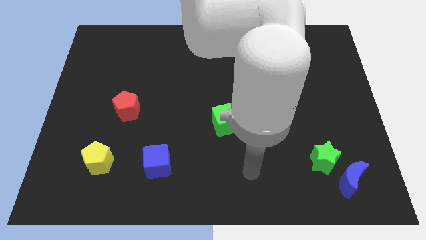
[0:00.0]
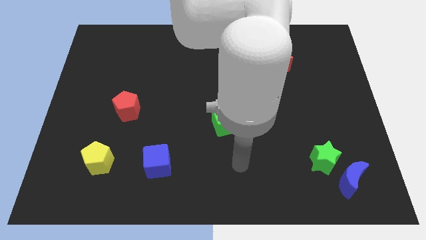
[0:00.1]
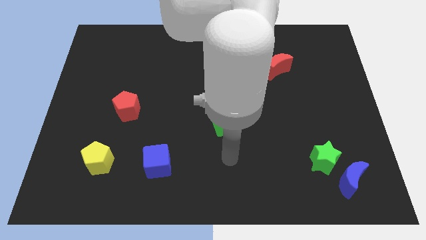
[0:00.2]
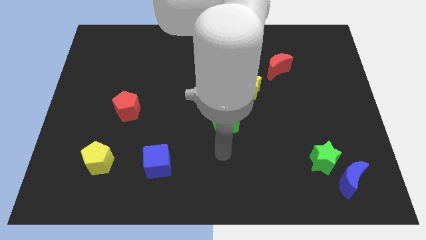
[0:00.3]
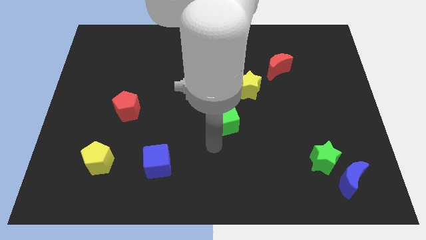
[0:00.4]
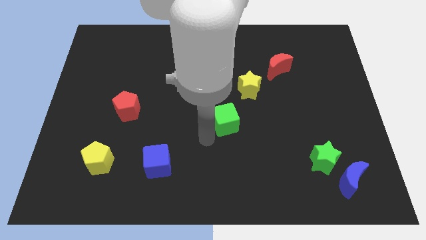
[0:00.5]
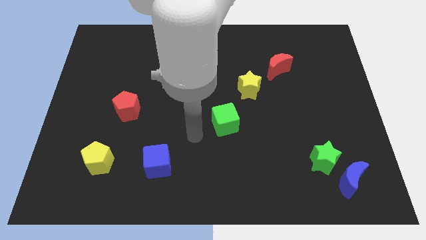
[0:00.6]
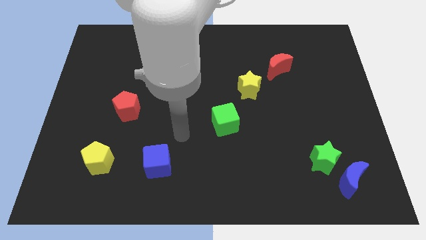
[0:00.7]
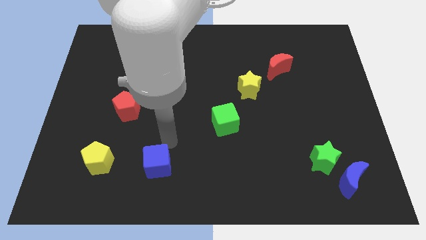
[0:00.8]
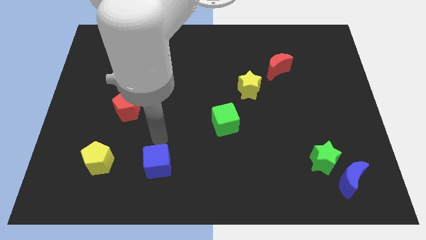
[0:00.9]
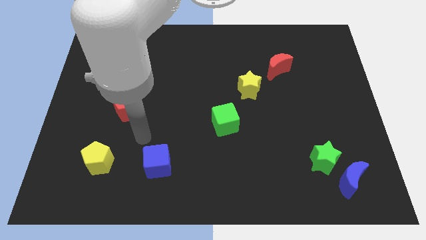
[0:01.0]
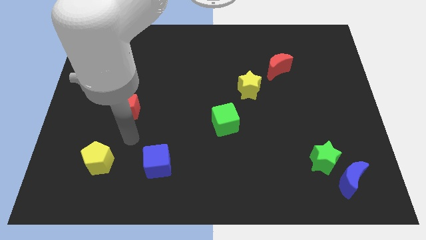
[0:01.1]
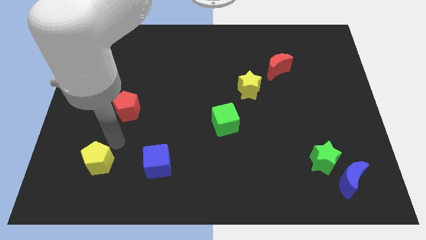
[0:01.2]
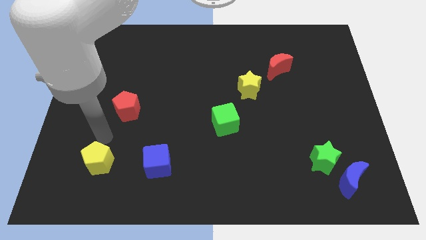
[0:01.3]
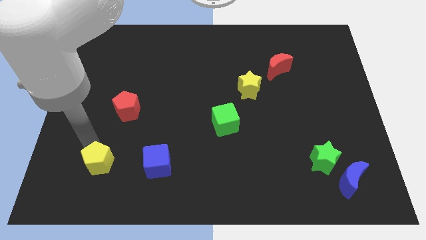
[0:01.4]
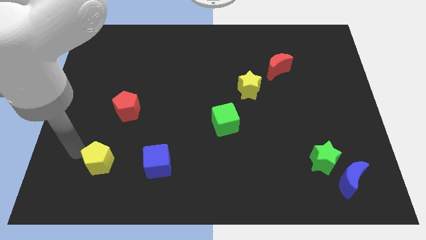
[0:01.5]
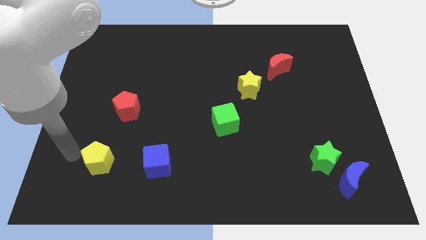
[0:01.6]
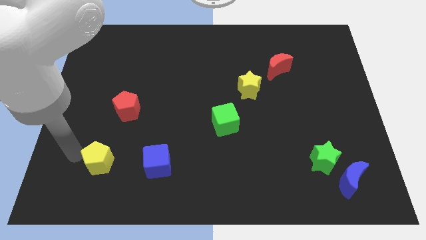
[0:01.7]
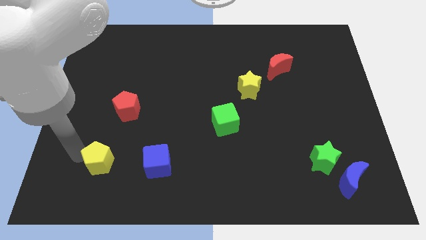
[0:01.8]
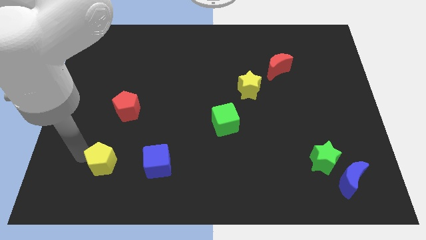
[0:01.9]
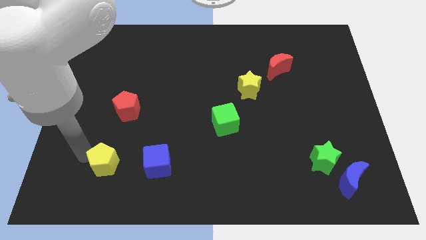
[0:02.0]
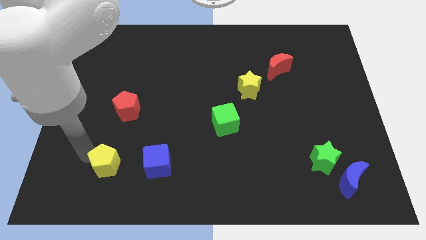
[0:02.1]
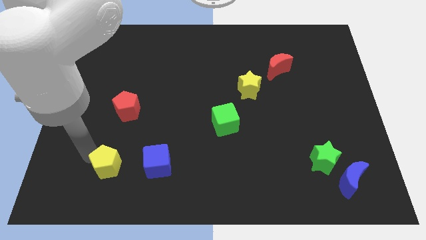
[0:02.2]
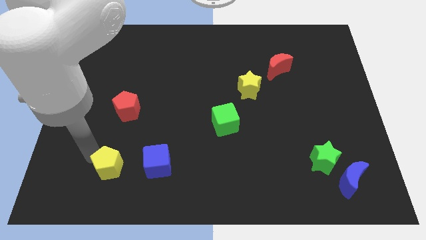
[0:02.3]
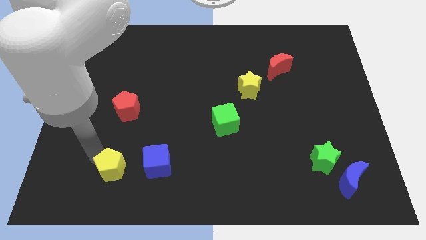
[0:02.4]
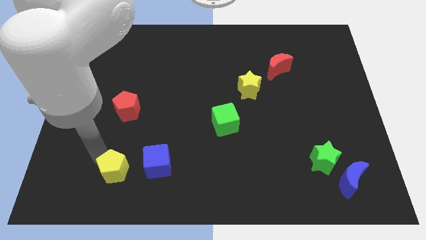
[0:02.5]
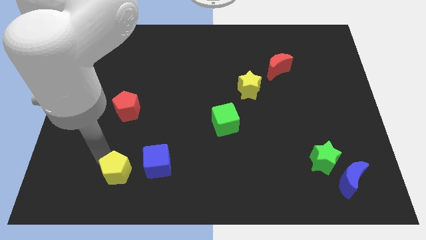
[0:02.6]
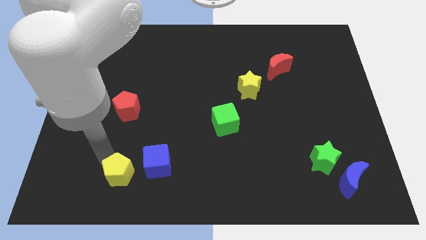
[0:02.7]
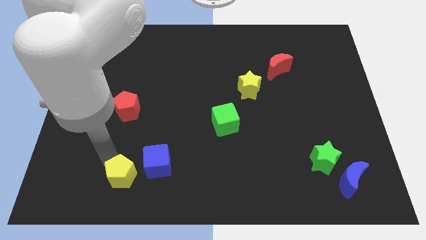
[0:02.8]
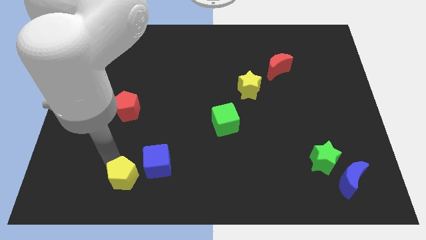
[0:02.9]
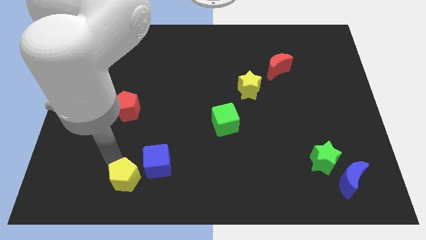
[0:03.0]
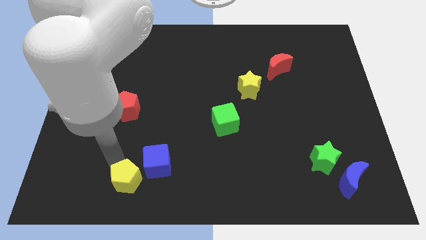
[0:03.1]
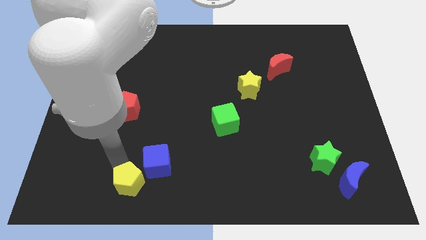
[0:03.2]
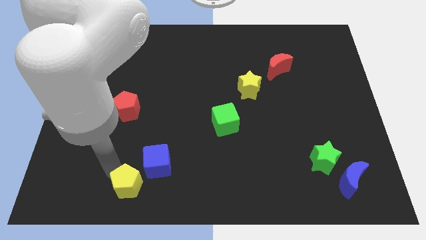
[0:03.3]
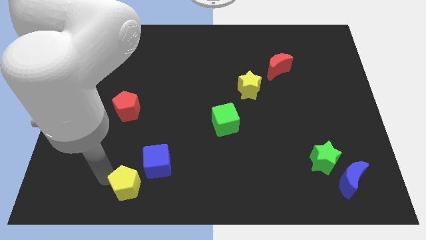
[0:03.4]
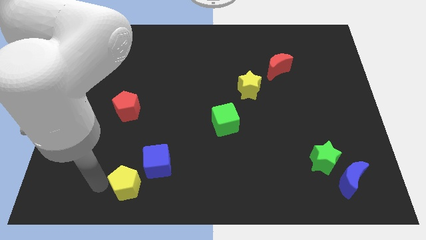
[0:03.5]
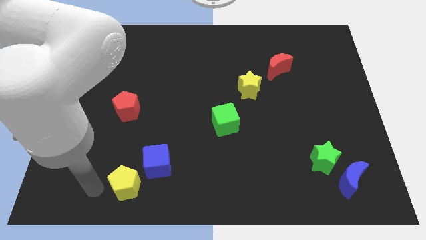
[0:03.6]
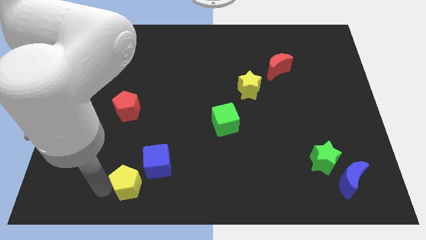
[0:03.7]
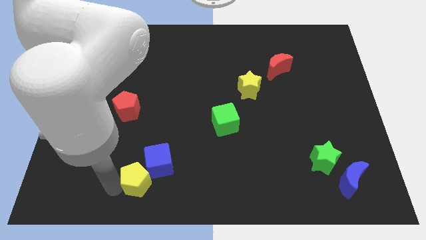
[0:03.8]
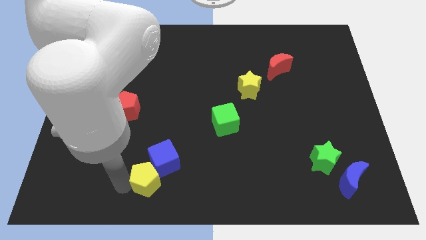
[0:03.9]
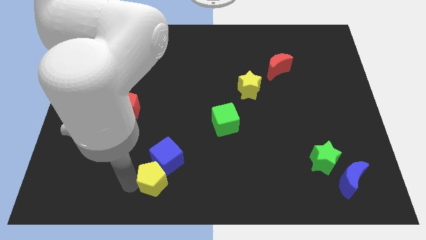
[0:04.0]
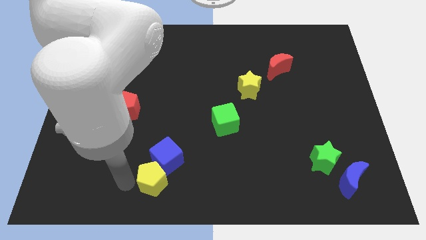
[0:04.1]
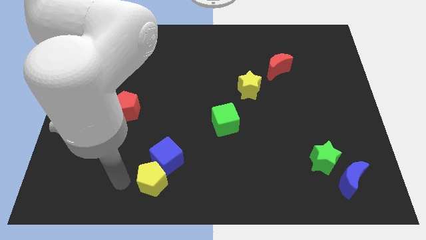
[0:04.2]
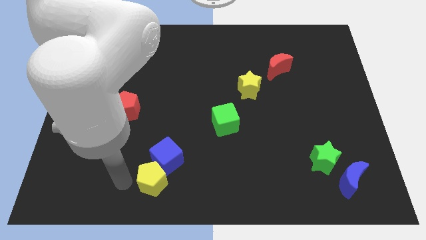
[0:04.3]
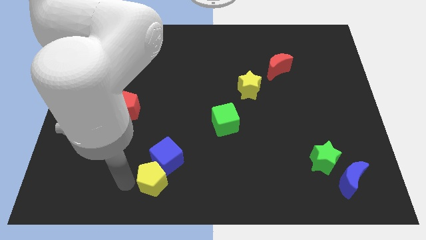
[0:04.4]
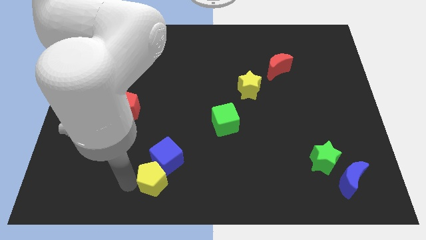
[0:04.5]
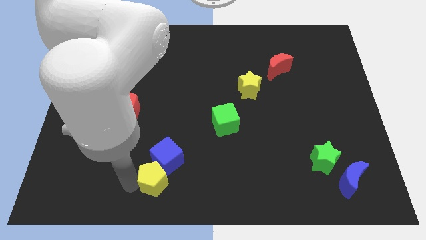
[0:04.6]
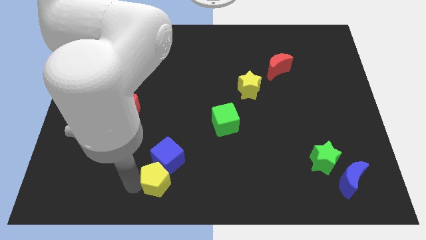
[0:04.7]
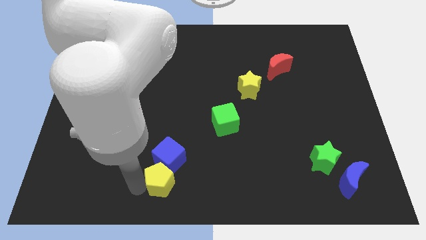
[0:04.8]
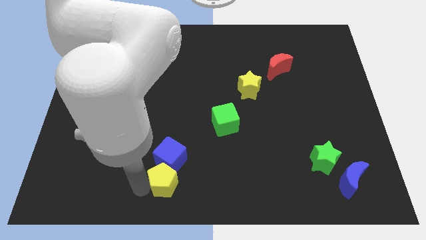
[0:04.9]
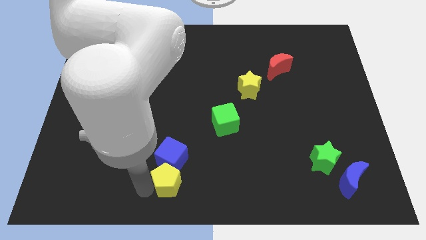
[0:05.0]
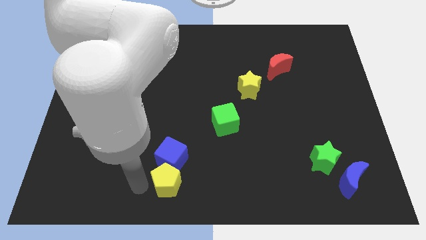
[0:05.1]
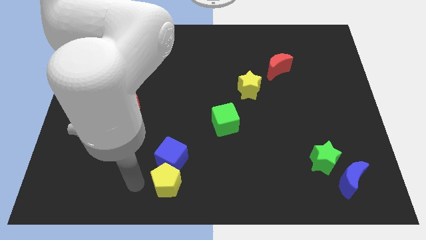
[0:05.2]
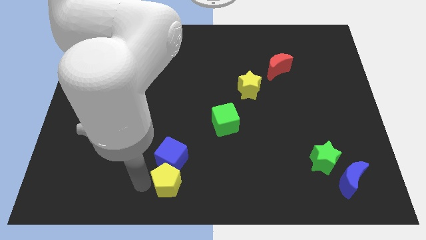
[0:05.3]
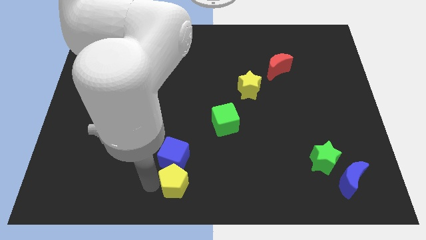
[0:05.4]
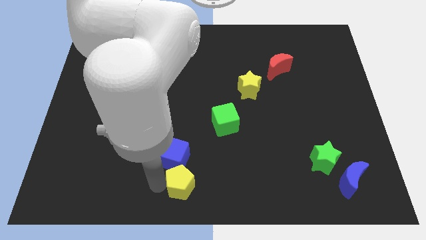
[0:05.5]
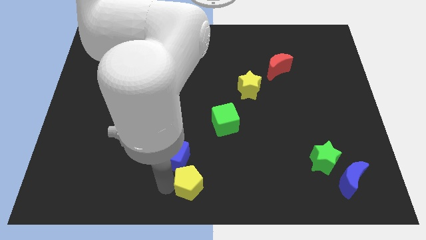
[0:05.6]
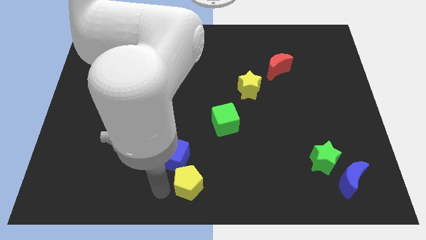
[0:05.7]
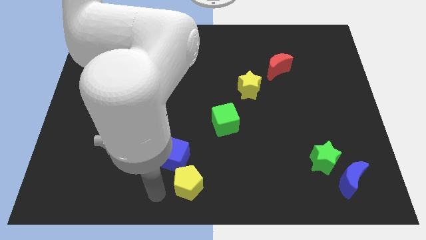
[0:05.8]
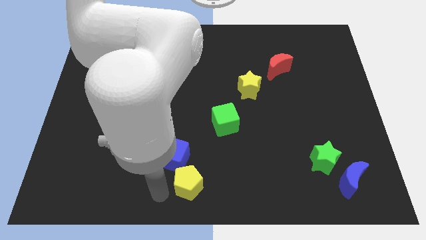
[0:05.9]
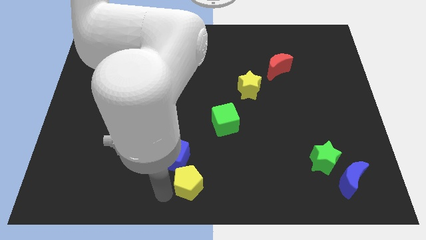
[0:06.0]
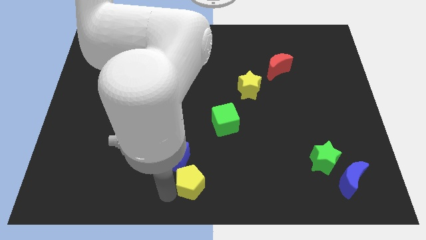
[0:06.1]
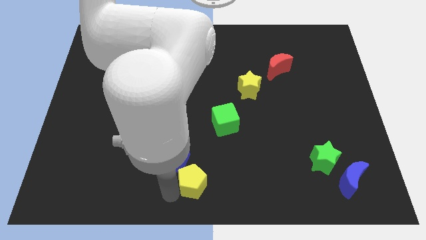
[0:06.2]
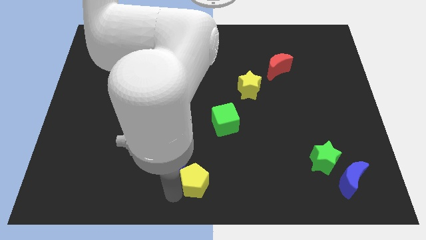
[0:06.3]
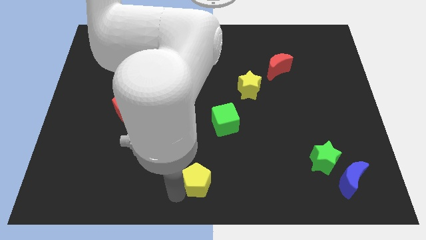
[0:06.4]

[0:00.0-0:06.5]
slide the yellow pentagon right

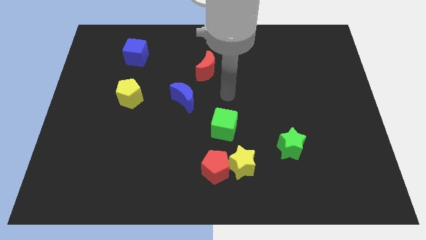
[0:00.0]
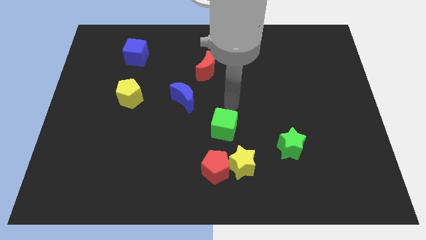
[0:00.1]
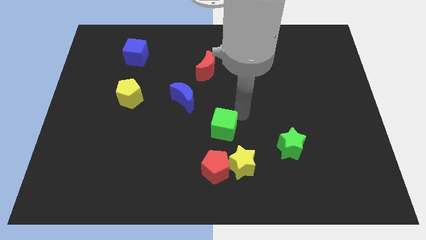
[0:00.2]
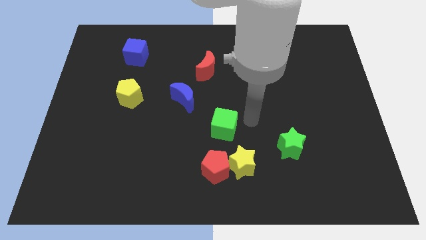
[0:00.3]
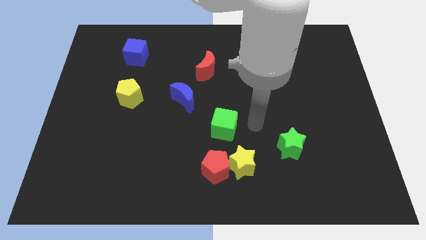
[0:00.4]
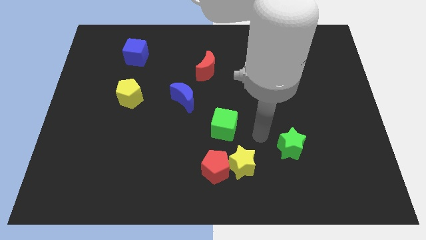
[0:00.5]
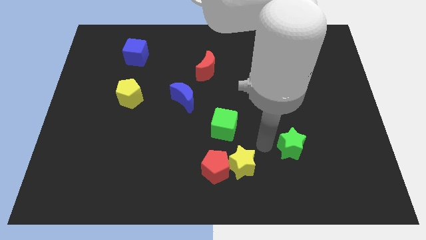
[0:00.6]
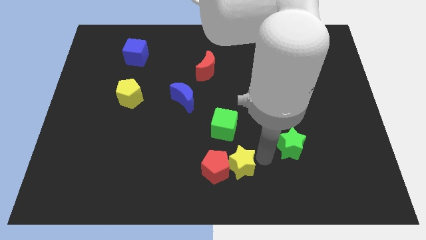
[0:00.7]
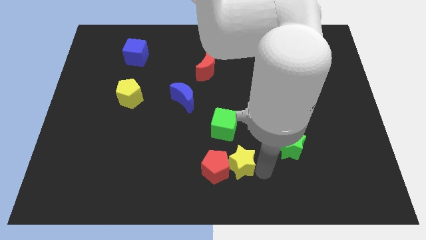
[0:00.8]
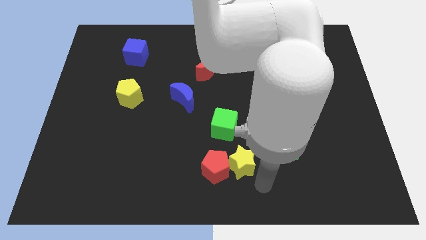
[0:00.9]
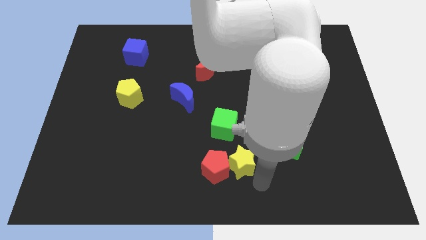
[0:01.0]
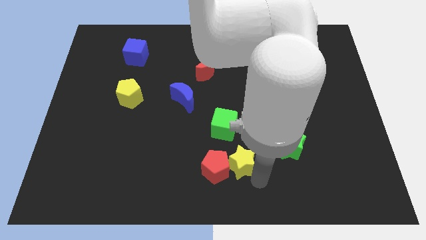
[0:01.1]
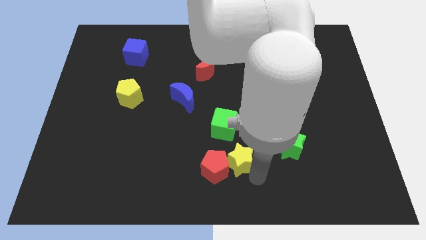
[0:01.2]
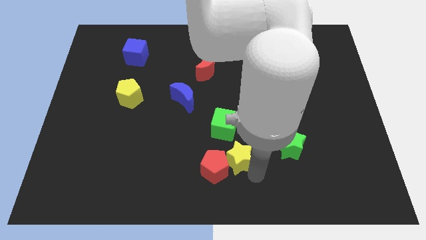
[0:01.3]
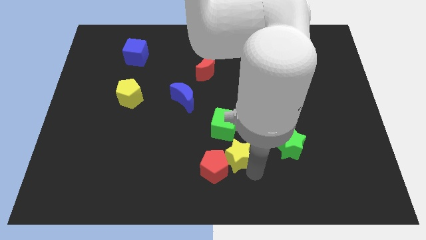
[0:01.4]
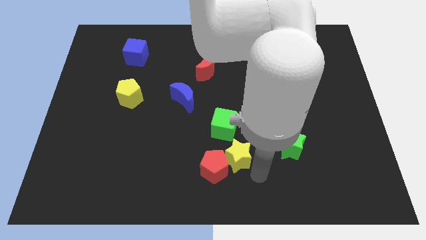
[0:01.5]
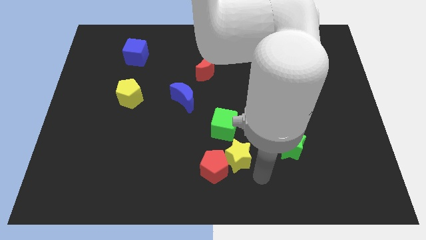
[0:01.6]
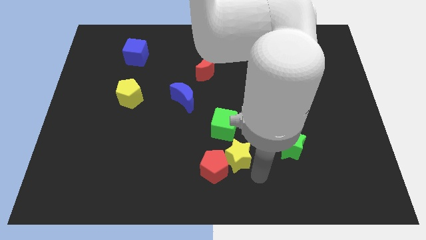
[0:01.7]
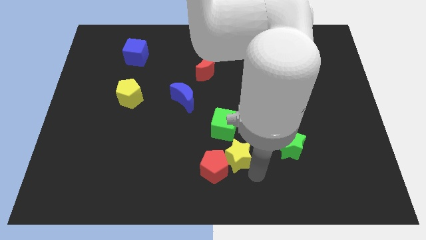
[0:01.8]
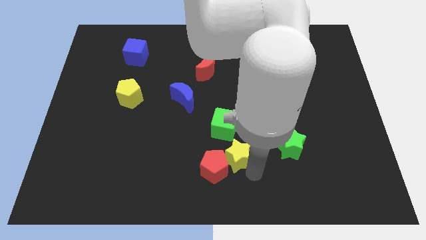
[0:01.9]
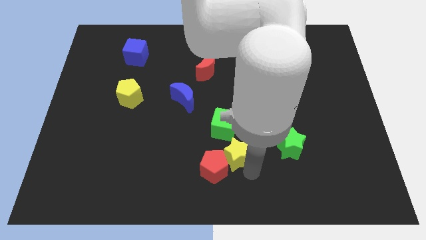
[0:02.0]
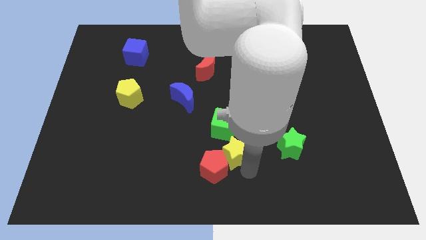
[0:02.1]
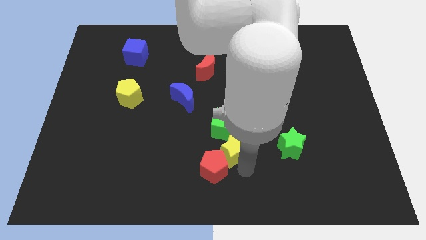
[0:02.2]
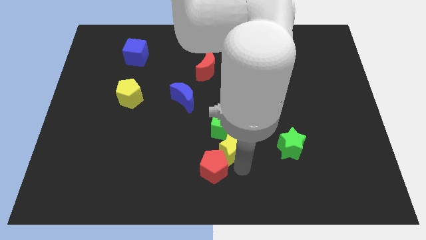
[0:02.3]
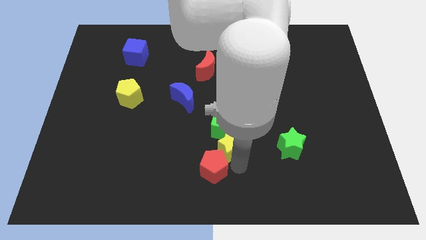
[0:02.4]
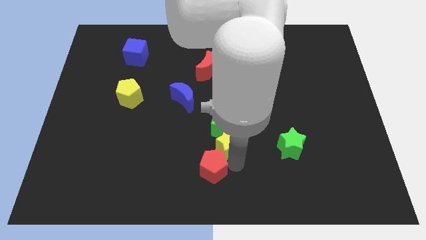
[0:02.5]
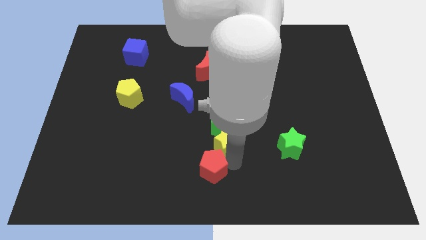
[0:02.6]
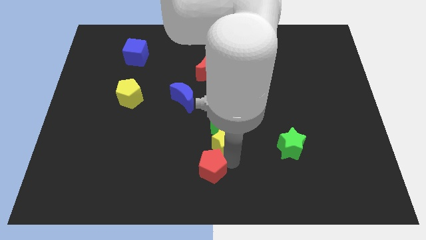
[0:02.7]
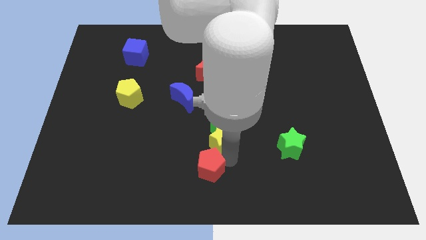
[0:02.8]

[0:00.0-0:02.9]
push the yellow star somewhat upwards and to the left
